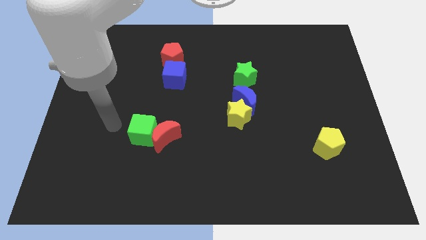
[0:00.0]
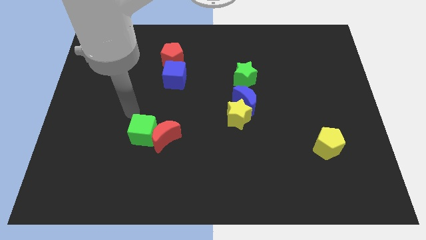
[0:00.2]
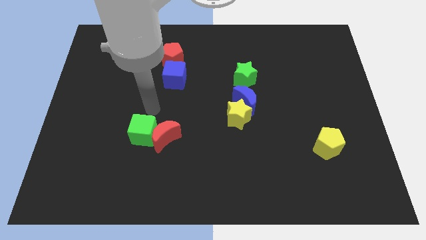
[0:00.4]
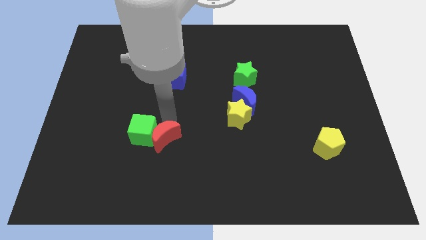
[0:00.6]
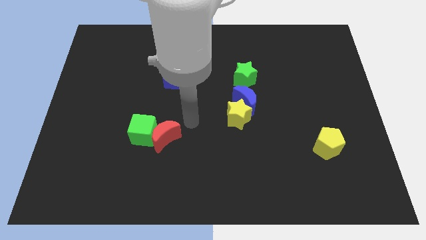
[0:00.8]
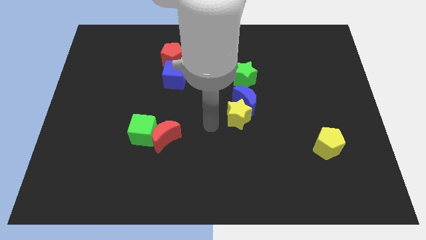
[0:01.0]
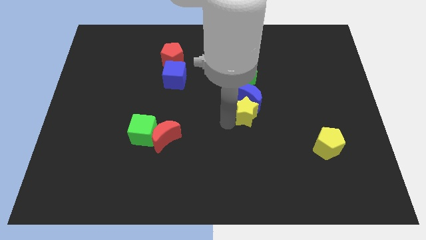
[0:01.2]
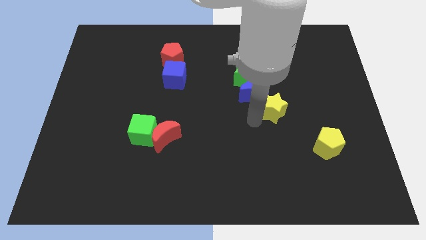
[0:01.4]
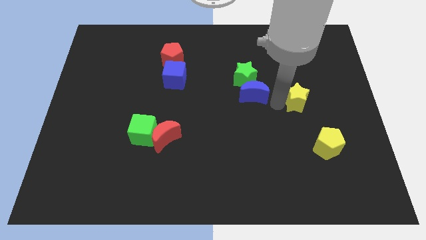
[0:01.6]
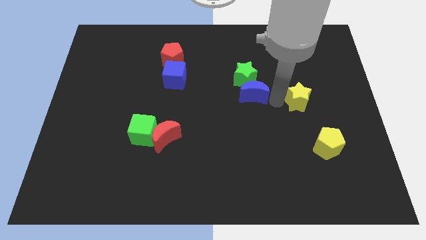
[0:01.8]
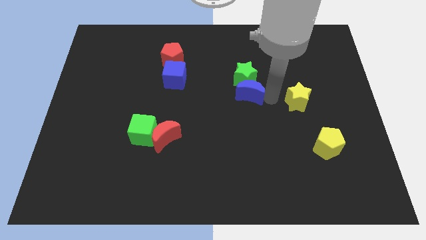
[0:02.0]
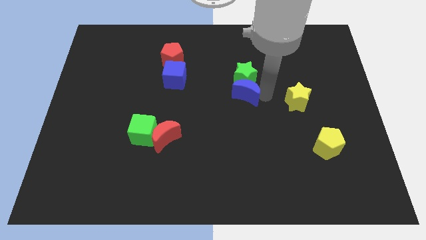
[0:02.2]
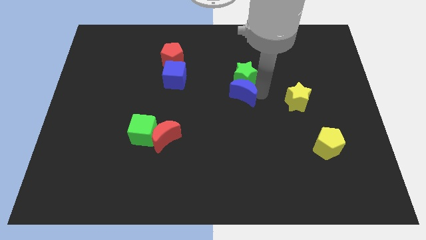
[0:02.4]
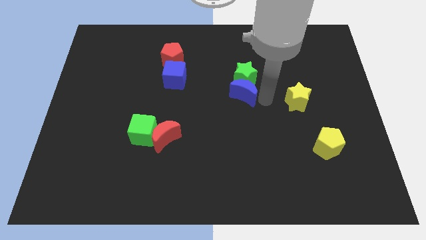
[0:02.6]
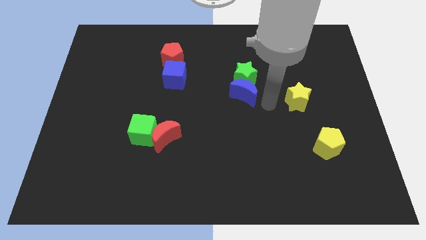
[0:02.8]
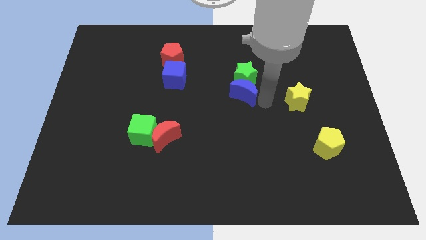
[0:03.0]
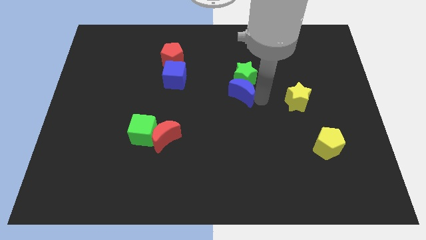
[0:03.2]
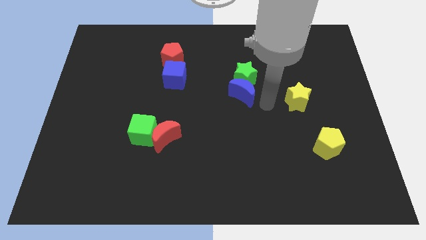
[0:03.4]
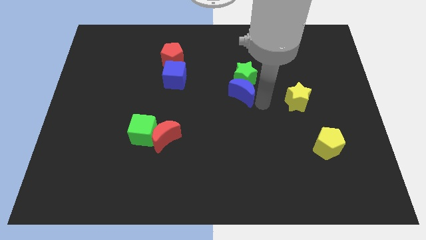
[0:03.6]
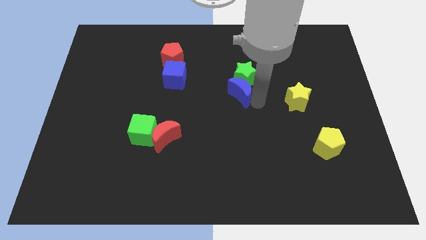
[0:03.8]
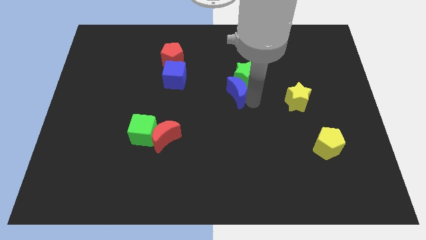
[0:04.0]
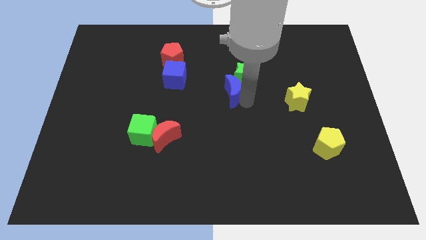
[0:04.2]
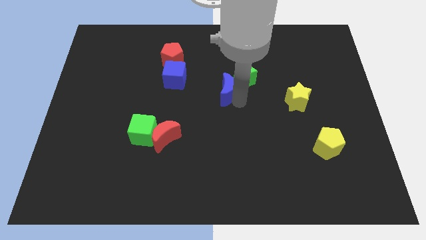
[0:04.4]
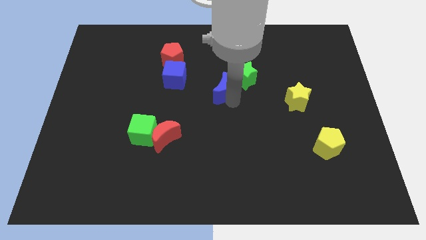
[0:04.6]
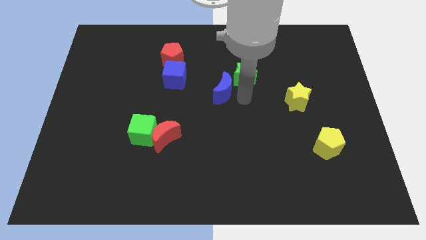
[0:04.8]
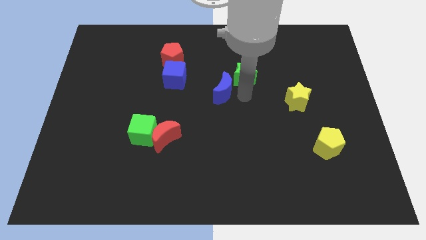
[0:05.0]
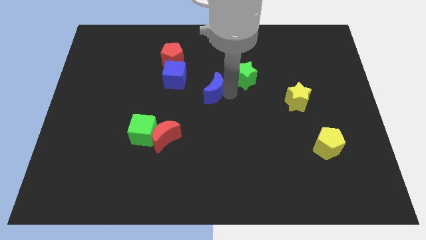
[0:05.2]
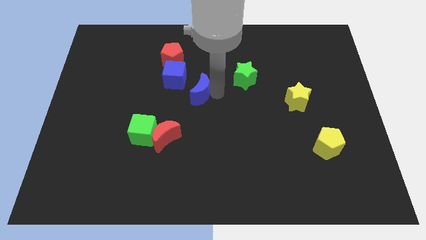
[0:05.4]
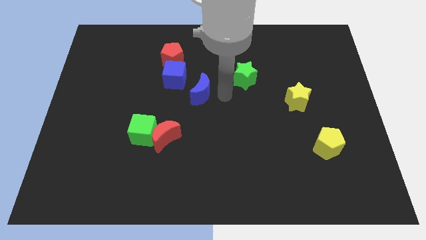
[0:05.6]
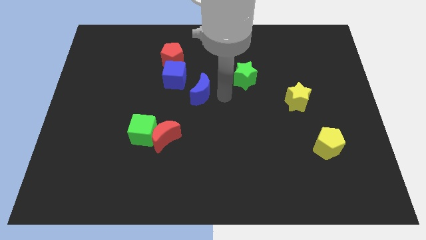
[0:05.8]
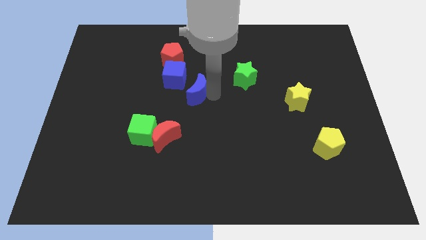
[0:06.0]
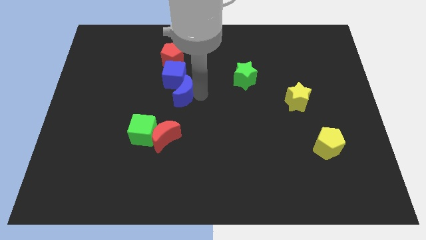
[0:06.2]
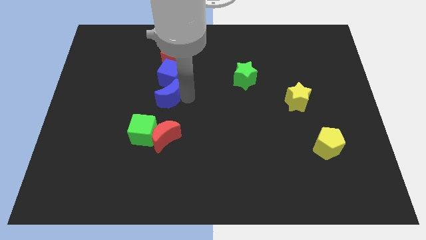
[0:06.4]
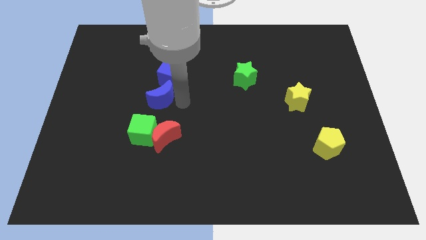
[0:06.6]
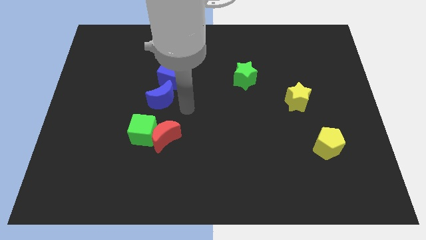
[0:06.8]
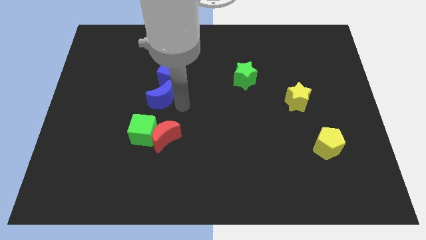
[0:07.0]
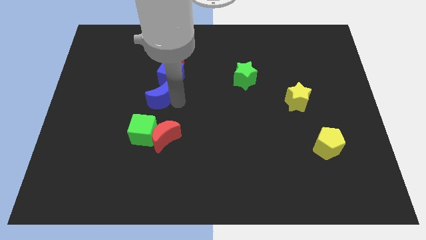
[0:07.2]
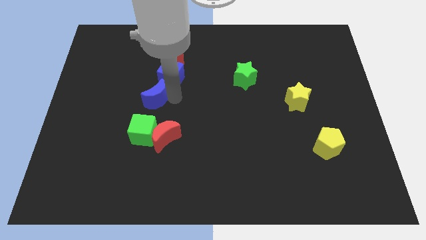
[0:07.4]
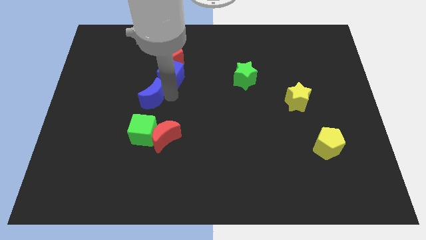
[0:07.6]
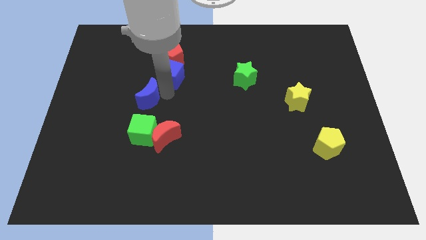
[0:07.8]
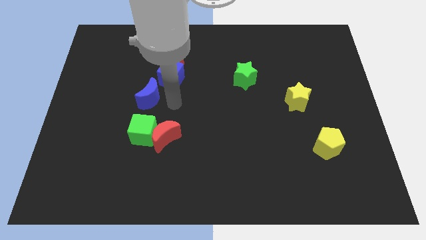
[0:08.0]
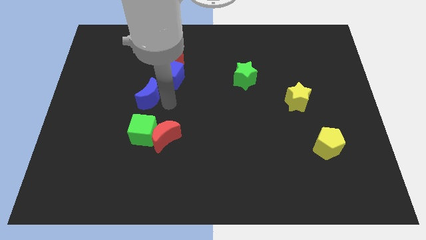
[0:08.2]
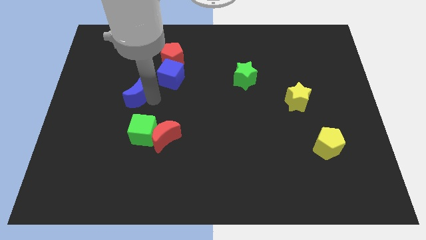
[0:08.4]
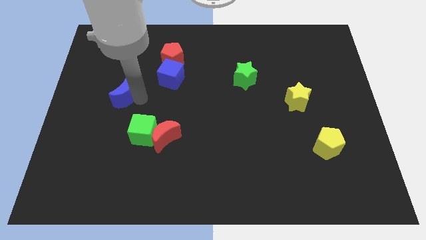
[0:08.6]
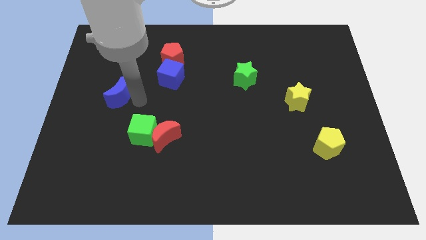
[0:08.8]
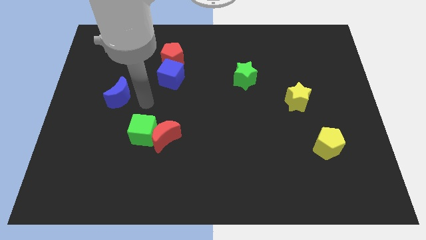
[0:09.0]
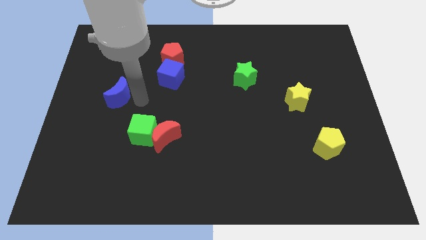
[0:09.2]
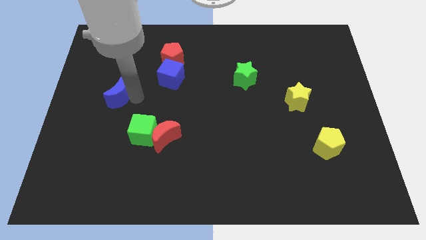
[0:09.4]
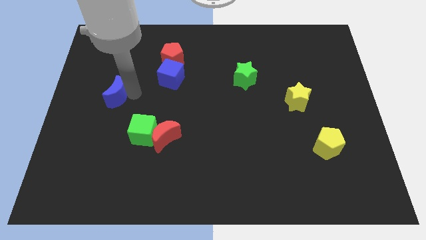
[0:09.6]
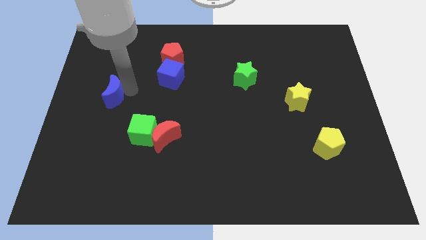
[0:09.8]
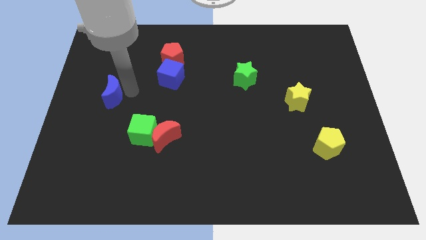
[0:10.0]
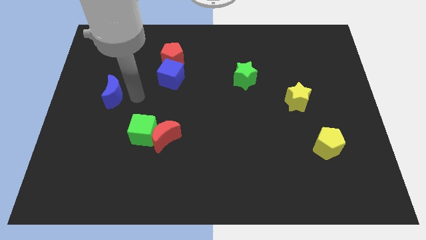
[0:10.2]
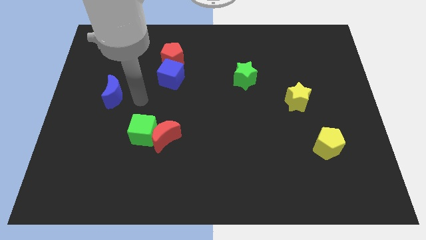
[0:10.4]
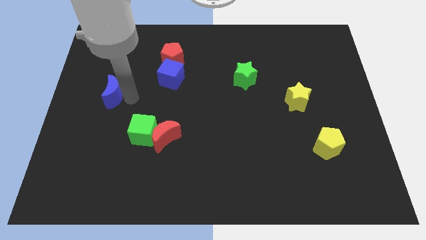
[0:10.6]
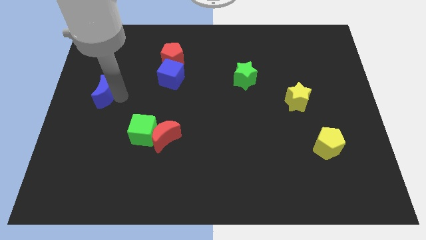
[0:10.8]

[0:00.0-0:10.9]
move the blue moon to the left side
